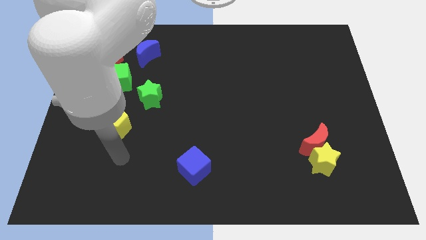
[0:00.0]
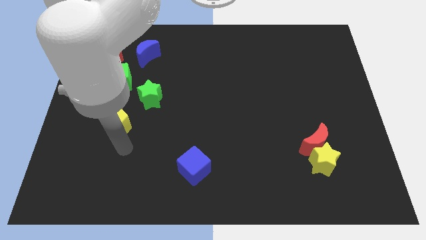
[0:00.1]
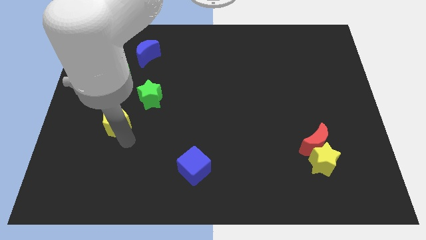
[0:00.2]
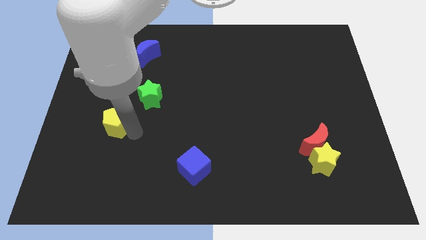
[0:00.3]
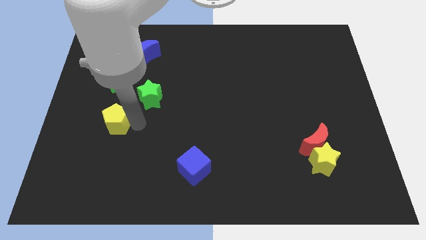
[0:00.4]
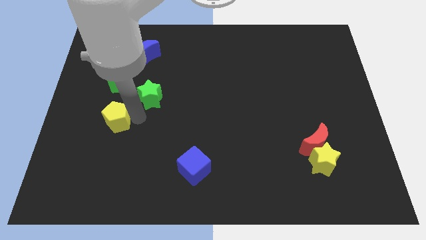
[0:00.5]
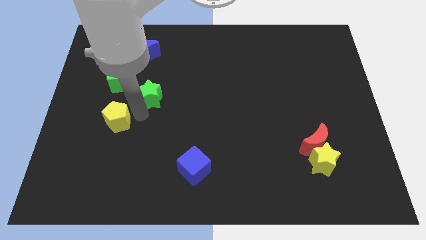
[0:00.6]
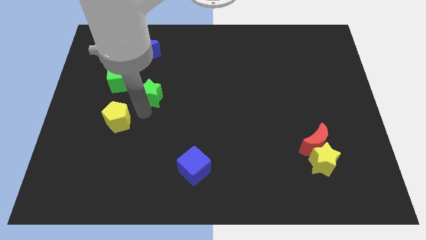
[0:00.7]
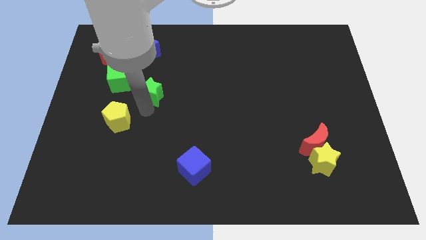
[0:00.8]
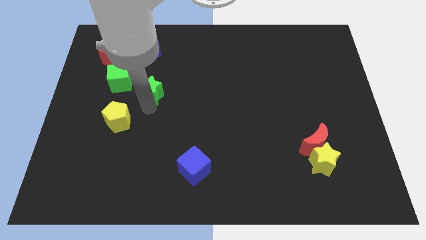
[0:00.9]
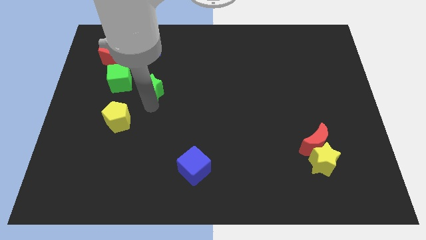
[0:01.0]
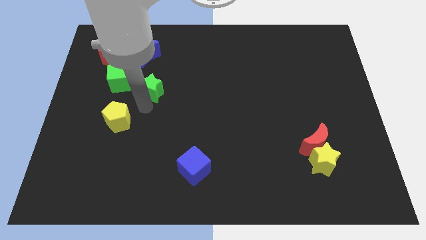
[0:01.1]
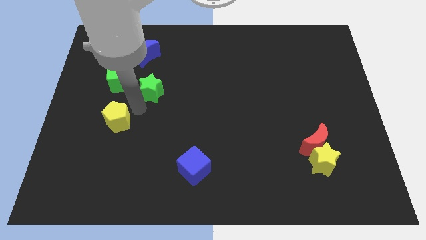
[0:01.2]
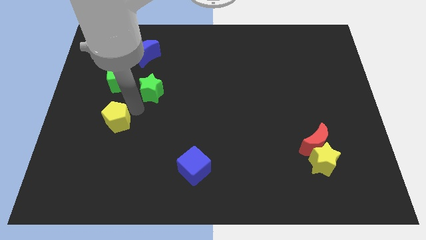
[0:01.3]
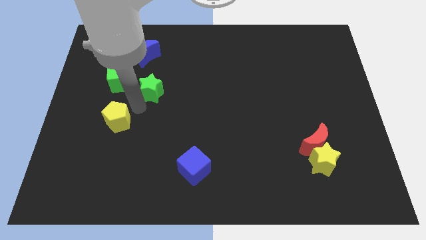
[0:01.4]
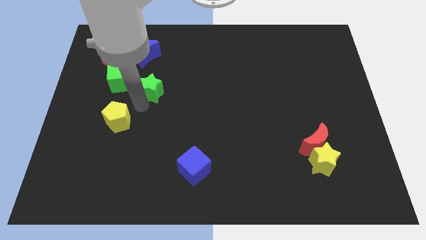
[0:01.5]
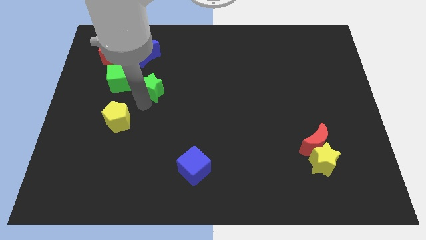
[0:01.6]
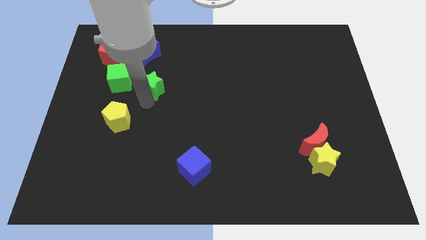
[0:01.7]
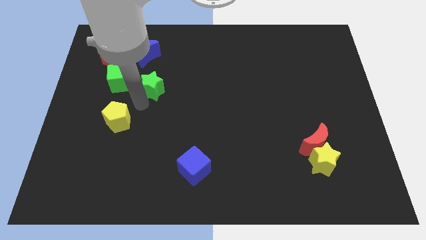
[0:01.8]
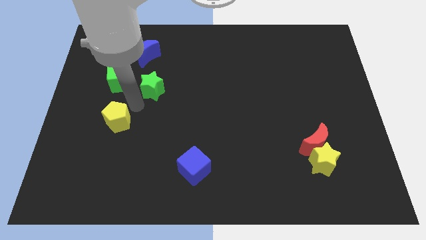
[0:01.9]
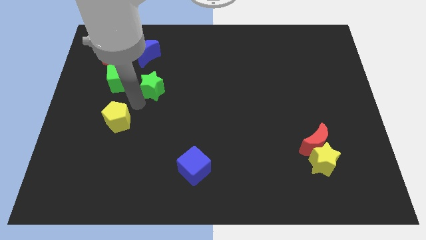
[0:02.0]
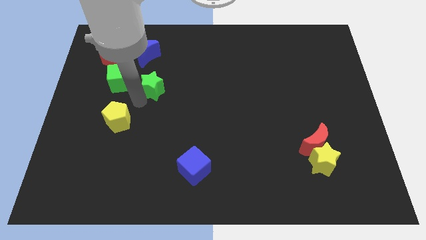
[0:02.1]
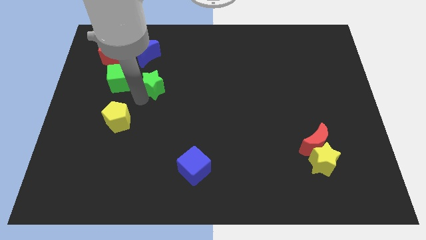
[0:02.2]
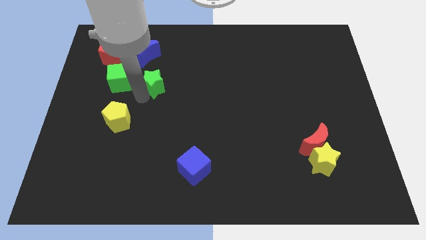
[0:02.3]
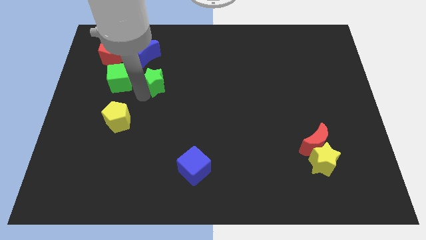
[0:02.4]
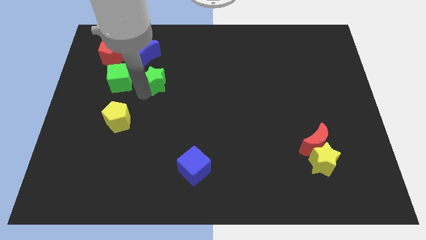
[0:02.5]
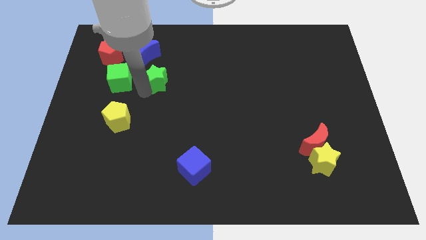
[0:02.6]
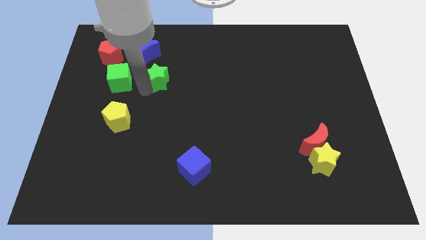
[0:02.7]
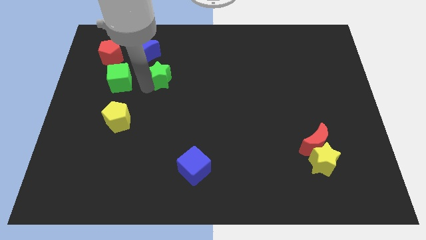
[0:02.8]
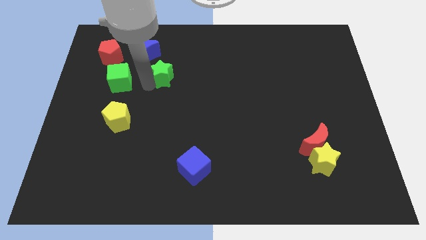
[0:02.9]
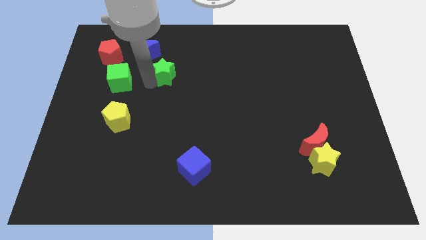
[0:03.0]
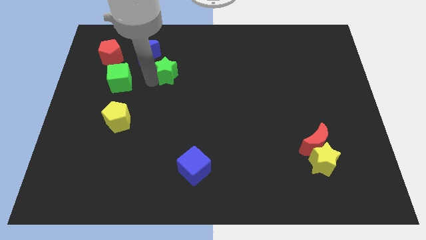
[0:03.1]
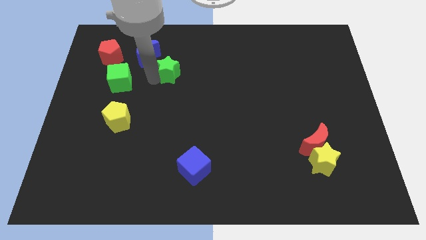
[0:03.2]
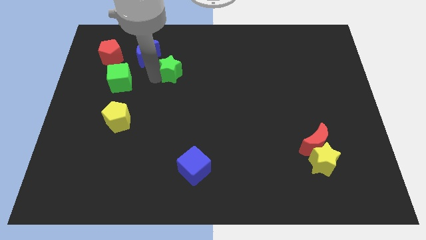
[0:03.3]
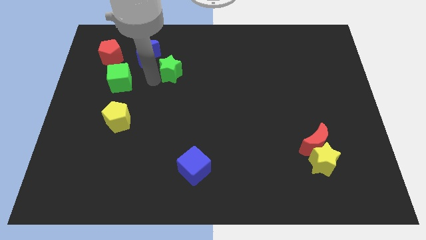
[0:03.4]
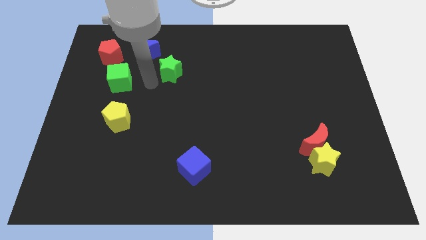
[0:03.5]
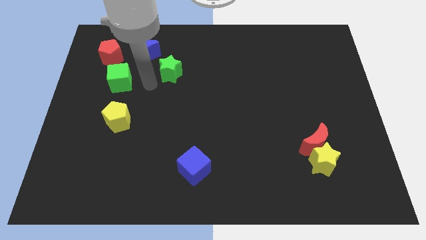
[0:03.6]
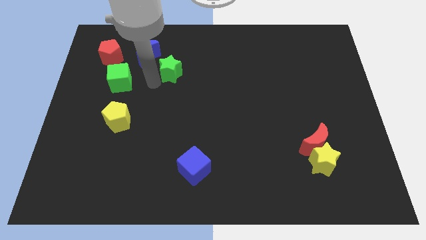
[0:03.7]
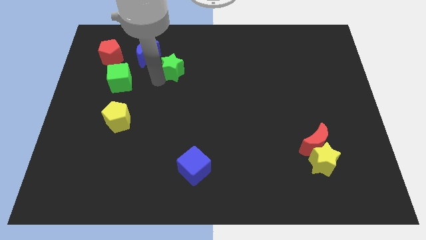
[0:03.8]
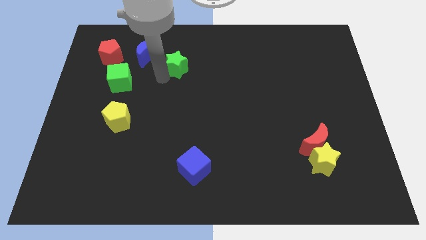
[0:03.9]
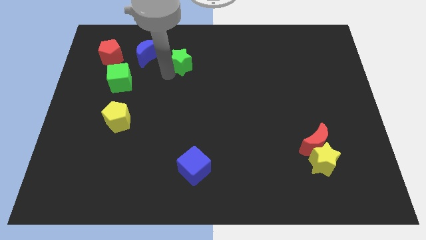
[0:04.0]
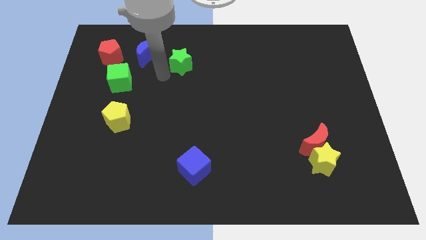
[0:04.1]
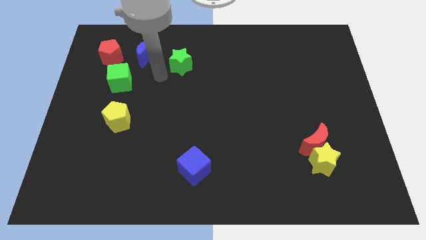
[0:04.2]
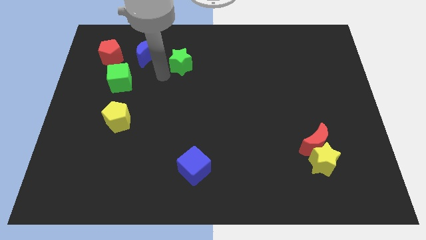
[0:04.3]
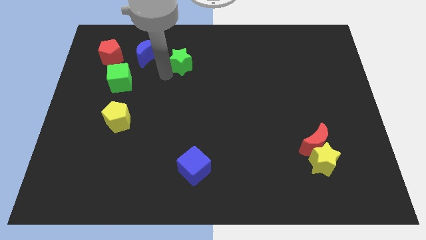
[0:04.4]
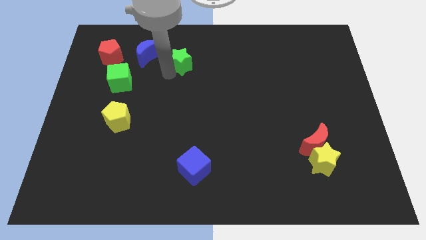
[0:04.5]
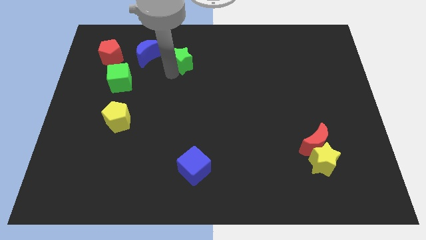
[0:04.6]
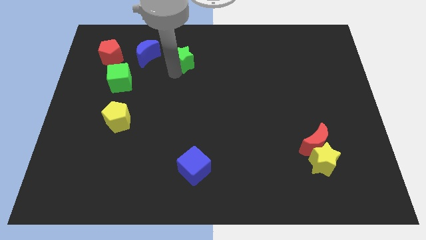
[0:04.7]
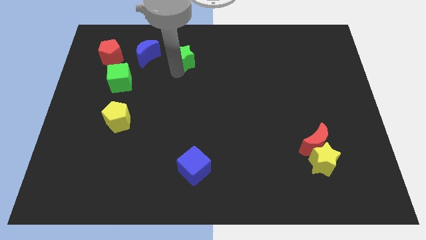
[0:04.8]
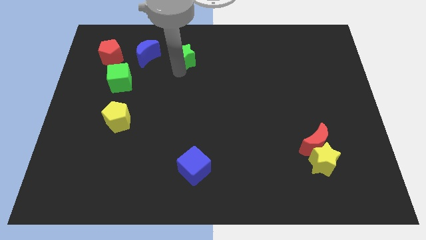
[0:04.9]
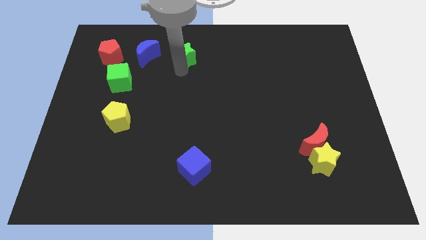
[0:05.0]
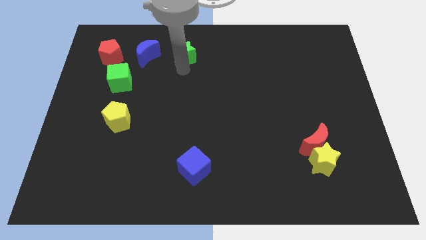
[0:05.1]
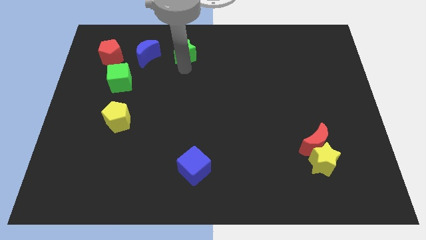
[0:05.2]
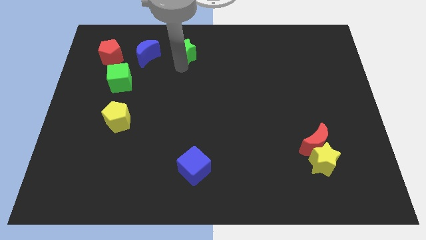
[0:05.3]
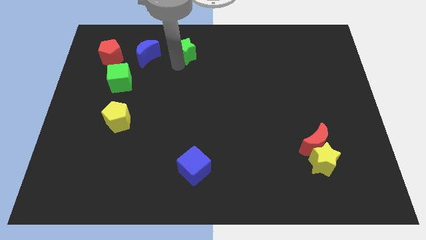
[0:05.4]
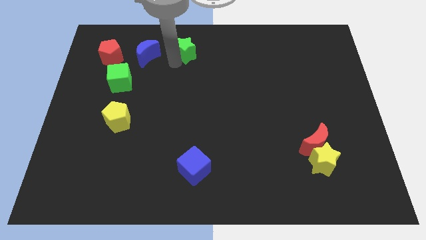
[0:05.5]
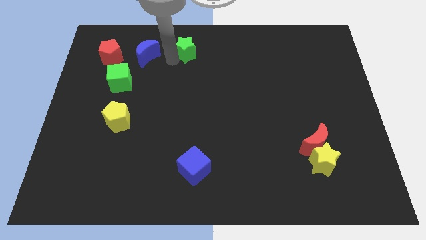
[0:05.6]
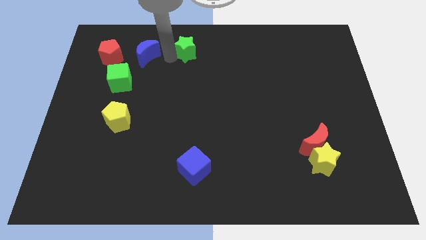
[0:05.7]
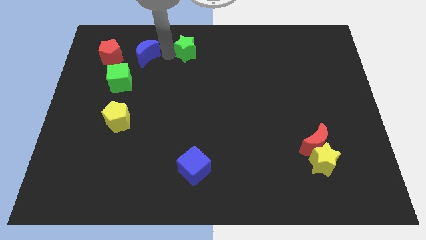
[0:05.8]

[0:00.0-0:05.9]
slide the green star to the top

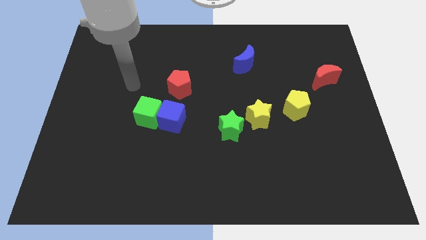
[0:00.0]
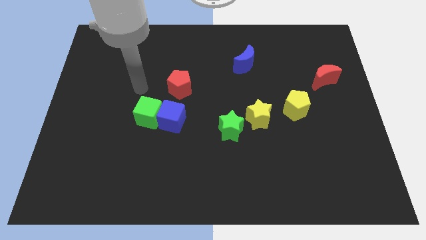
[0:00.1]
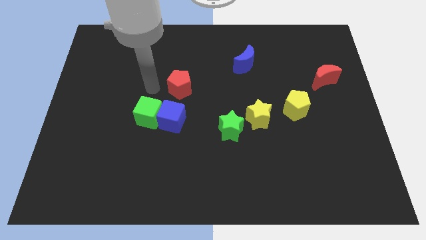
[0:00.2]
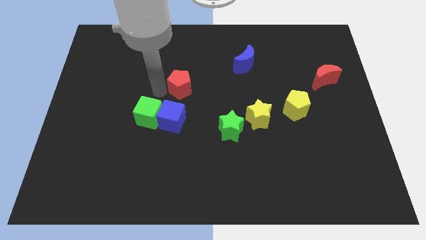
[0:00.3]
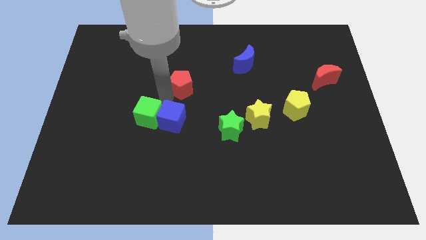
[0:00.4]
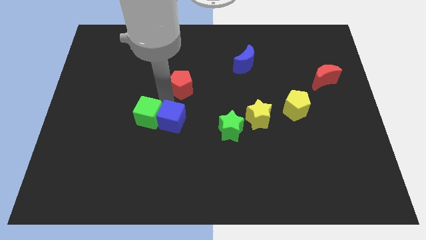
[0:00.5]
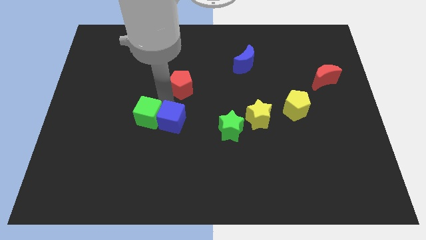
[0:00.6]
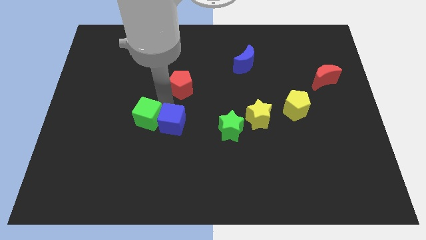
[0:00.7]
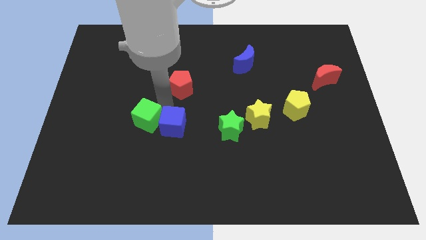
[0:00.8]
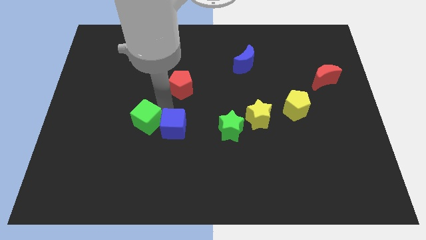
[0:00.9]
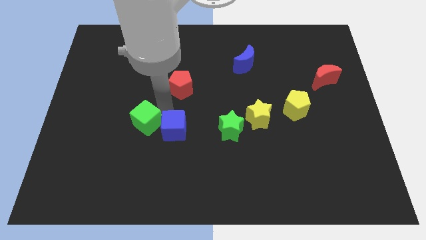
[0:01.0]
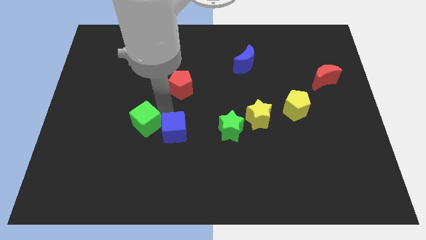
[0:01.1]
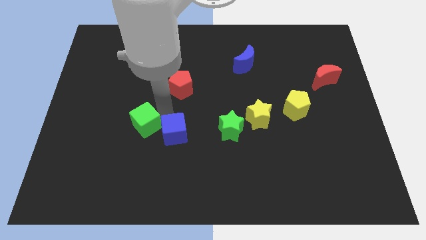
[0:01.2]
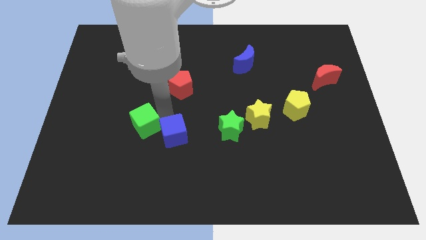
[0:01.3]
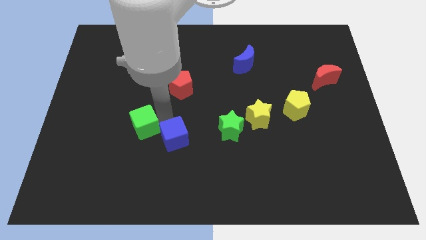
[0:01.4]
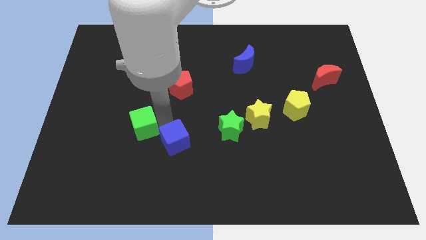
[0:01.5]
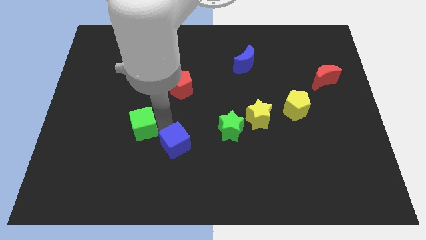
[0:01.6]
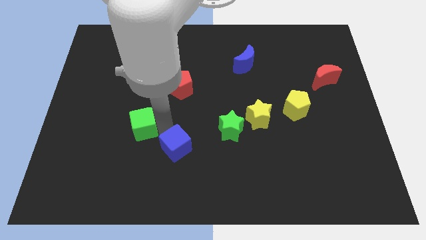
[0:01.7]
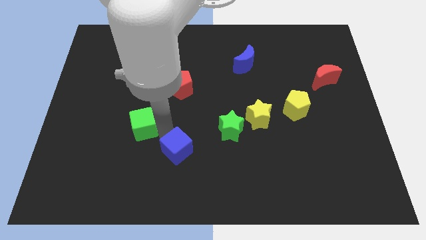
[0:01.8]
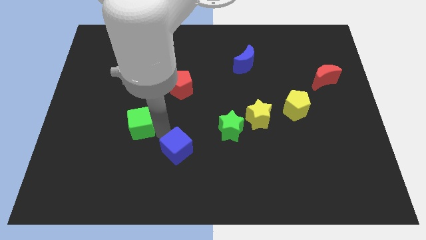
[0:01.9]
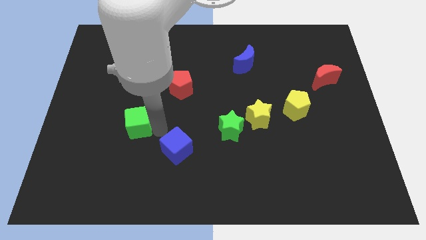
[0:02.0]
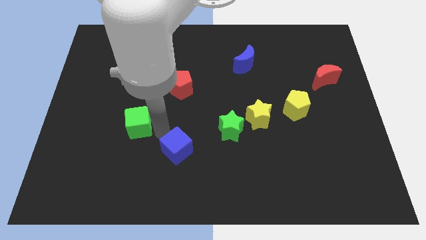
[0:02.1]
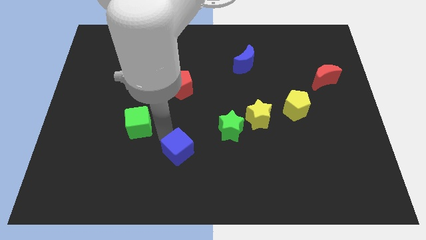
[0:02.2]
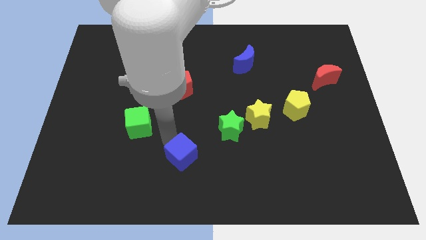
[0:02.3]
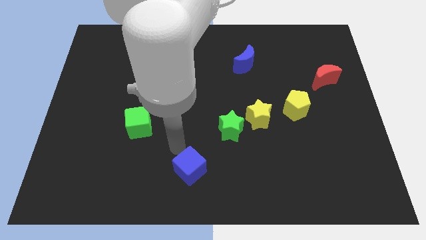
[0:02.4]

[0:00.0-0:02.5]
slide the blue cube to the bottom side

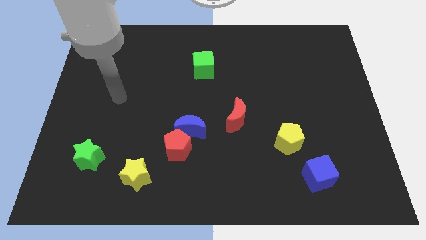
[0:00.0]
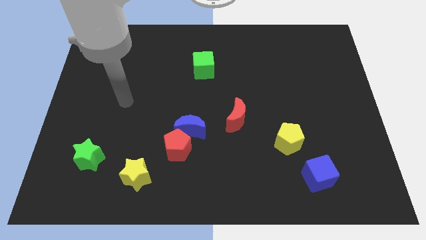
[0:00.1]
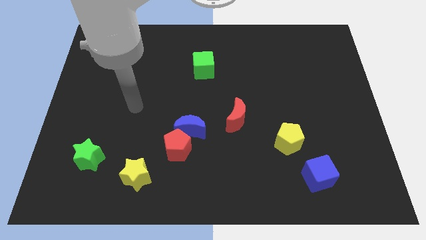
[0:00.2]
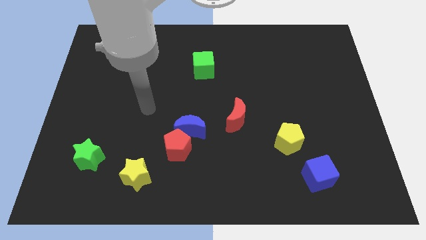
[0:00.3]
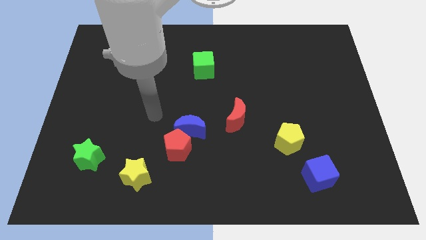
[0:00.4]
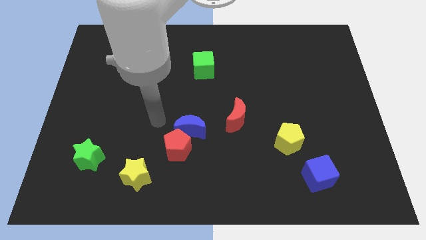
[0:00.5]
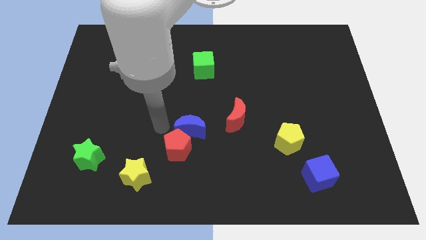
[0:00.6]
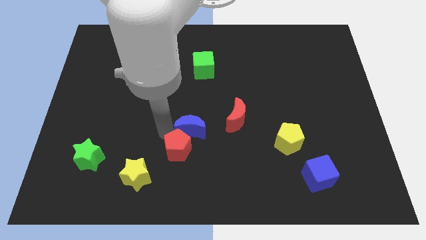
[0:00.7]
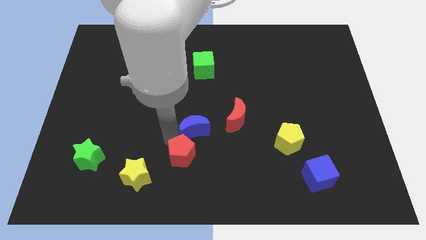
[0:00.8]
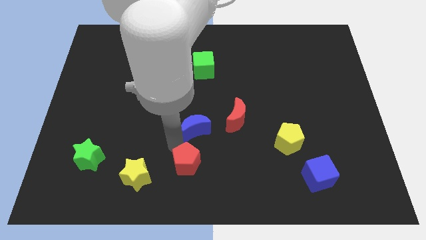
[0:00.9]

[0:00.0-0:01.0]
put the red pentagon to the bottom
